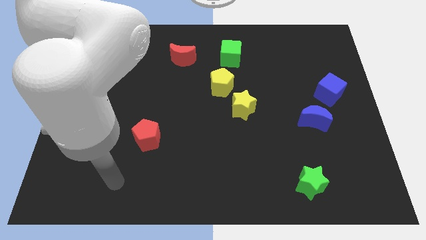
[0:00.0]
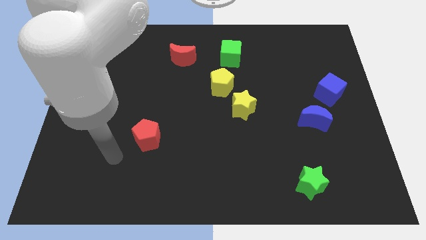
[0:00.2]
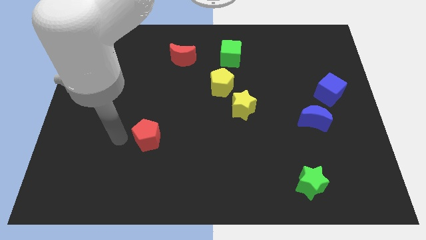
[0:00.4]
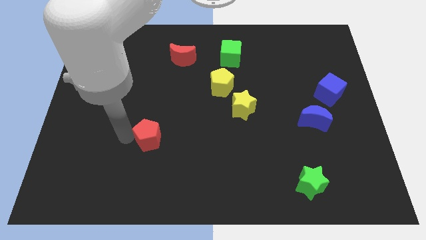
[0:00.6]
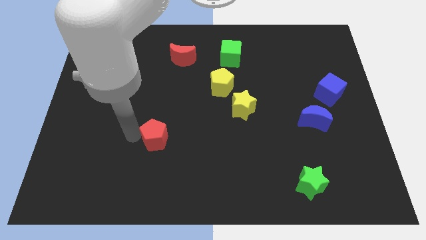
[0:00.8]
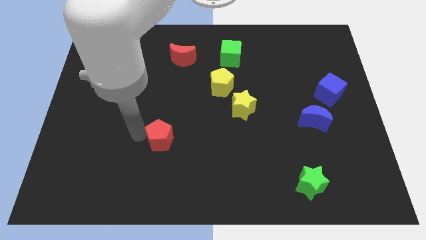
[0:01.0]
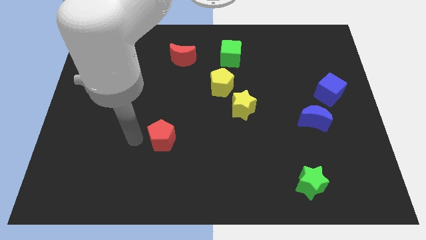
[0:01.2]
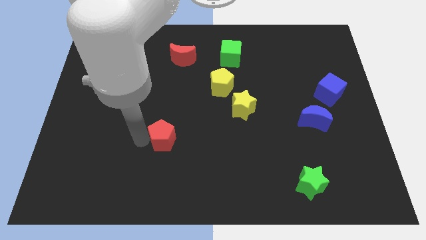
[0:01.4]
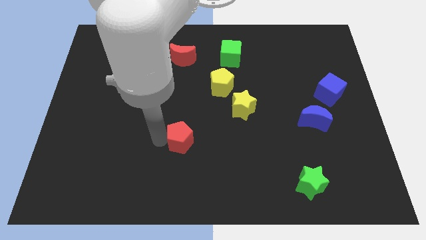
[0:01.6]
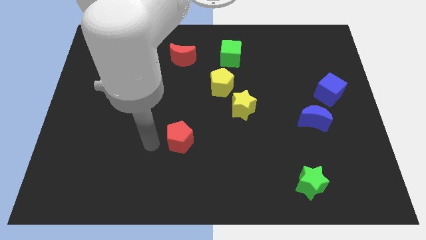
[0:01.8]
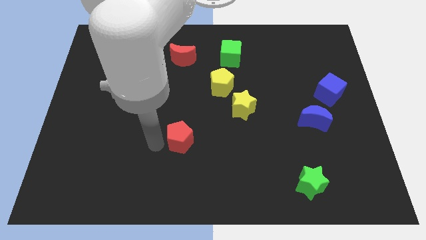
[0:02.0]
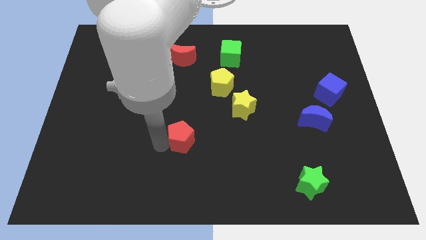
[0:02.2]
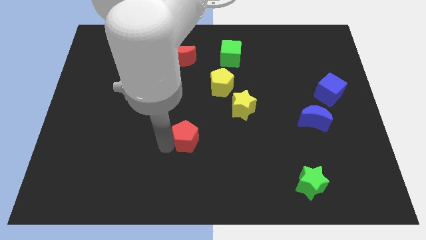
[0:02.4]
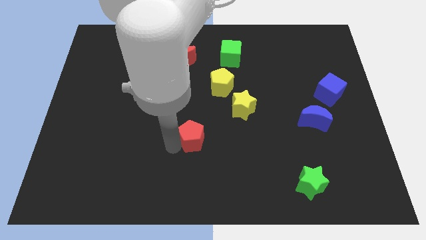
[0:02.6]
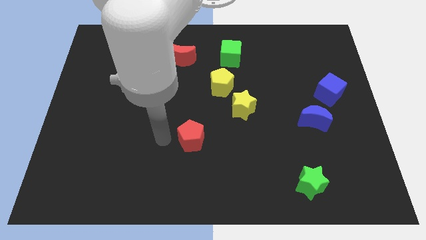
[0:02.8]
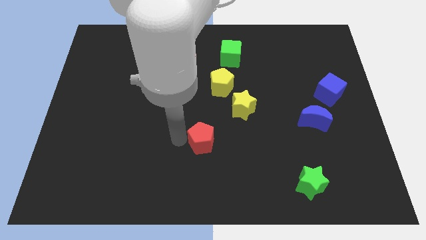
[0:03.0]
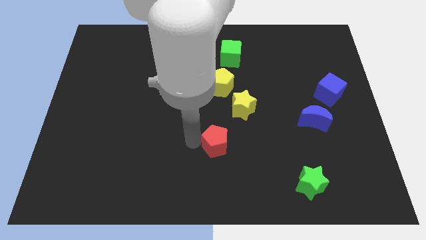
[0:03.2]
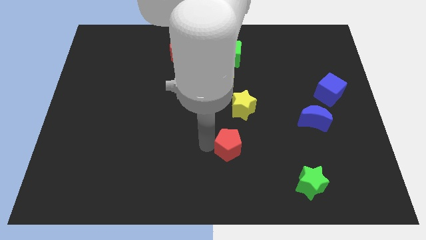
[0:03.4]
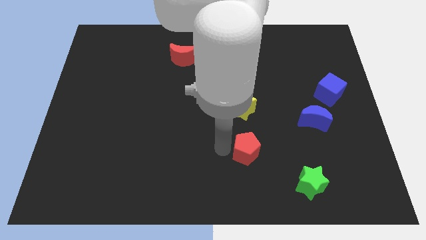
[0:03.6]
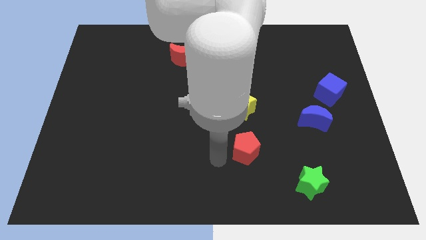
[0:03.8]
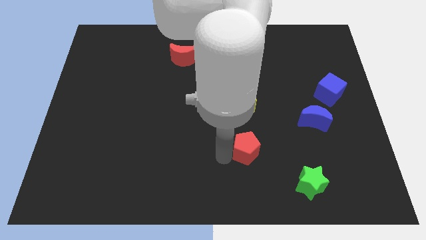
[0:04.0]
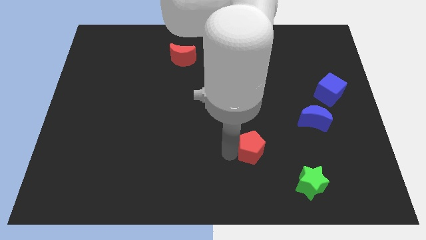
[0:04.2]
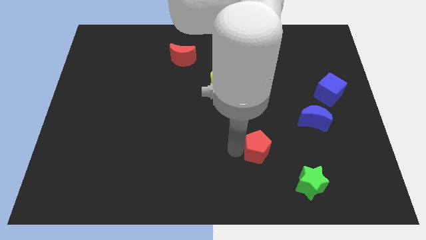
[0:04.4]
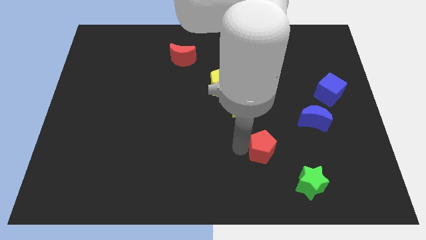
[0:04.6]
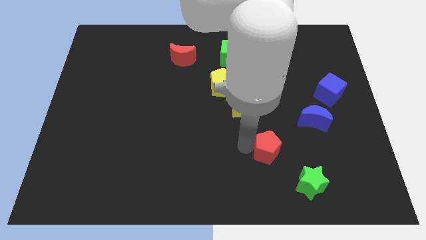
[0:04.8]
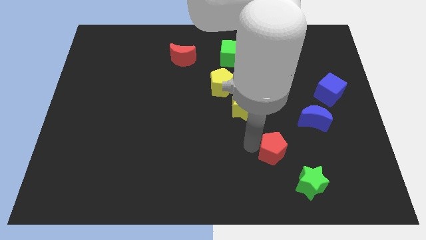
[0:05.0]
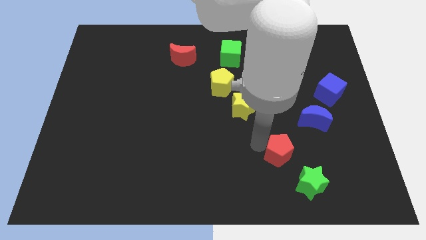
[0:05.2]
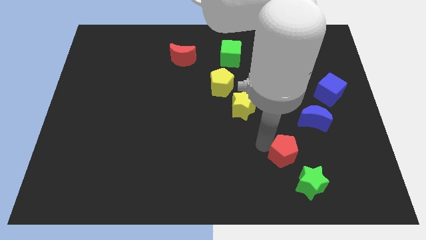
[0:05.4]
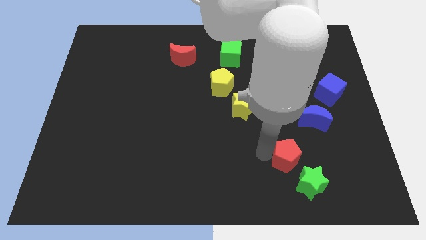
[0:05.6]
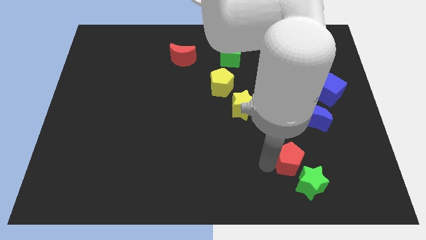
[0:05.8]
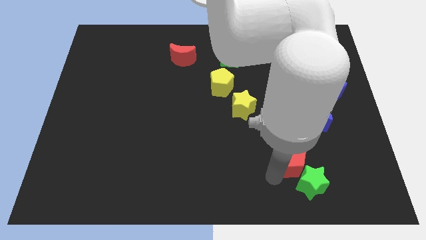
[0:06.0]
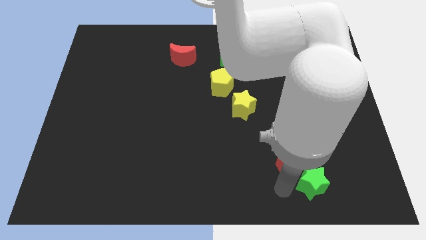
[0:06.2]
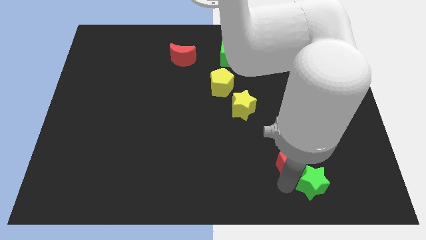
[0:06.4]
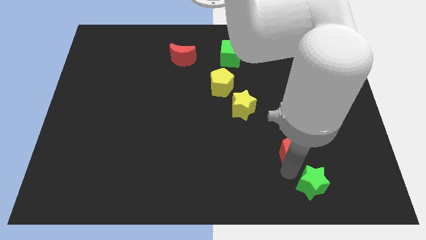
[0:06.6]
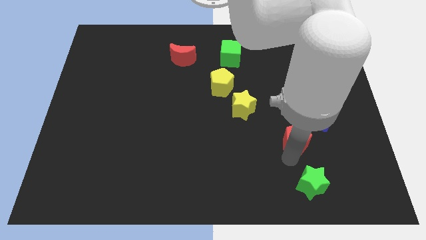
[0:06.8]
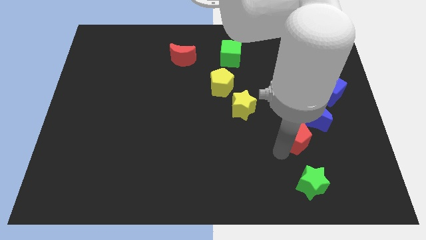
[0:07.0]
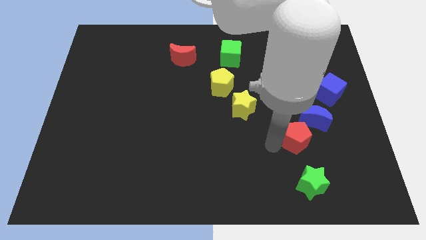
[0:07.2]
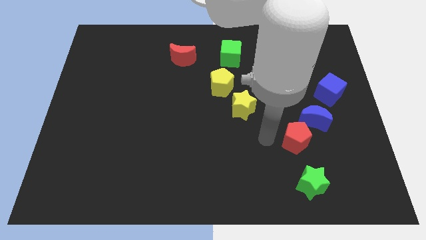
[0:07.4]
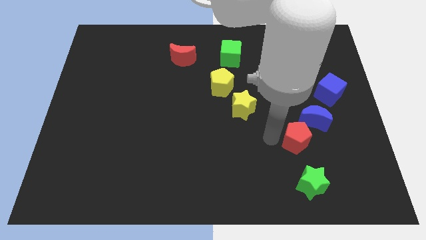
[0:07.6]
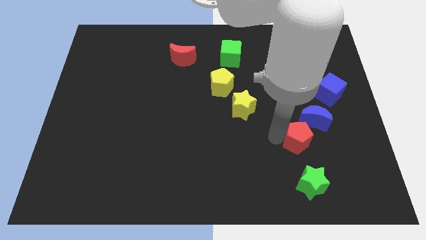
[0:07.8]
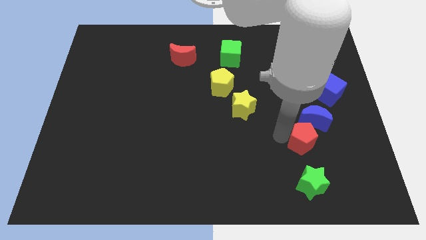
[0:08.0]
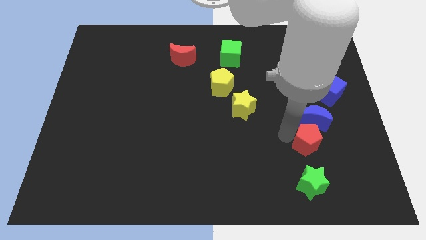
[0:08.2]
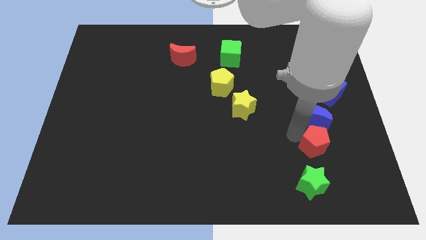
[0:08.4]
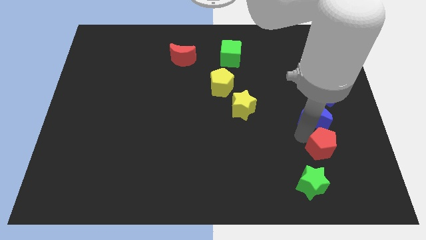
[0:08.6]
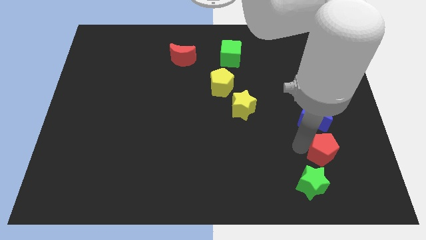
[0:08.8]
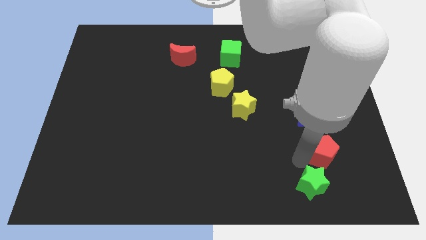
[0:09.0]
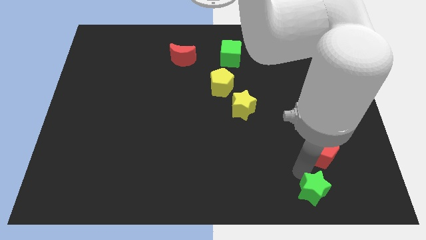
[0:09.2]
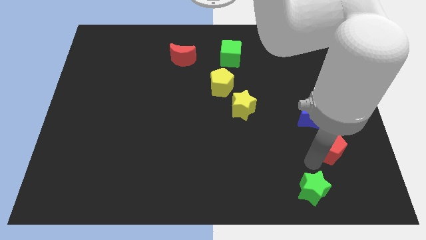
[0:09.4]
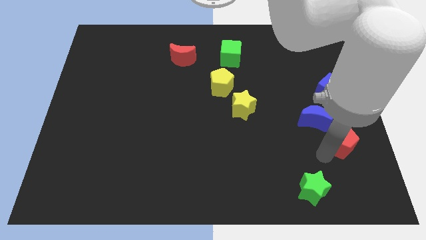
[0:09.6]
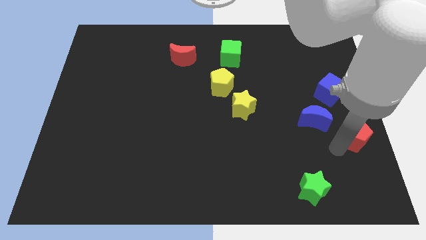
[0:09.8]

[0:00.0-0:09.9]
move the red pentagon to the right side

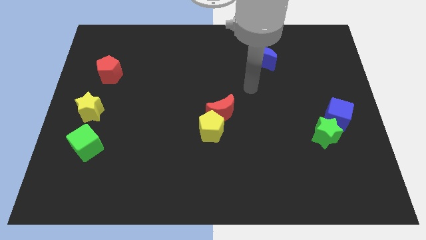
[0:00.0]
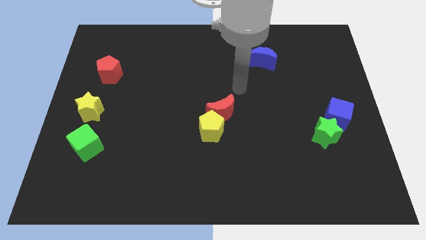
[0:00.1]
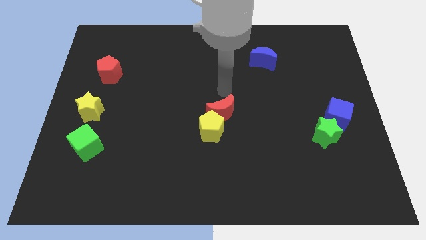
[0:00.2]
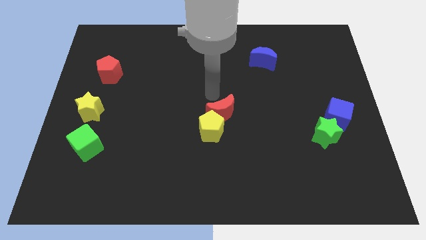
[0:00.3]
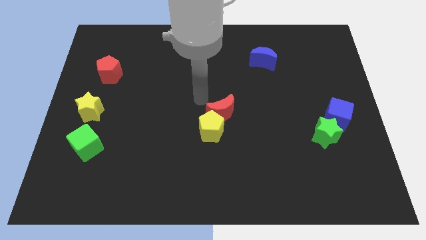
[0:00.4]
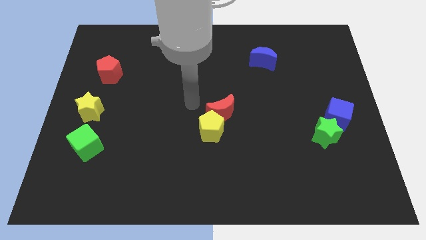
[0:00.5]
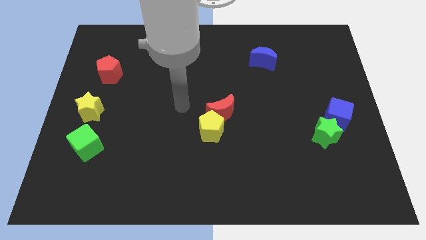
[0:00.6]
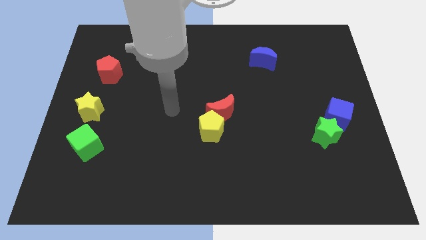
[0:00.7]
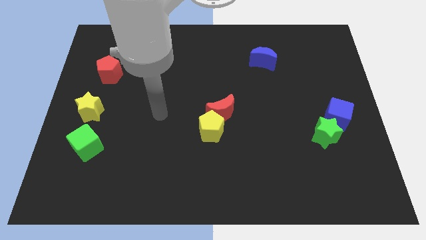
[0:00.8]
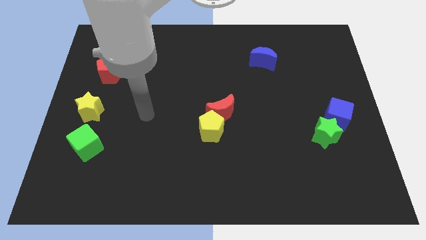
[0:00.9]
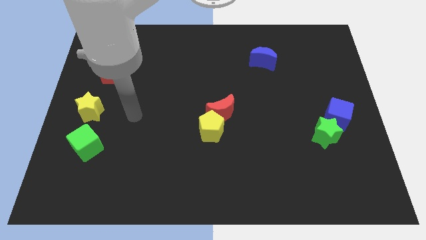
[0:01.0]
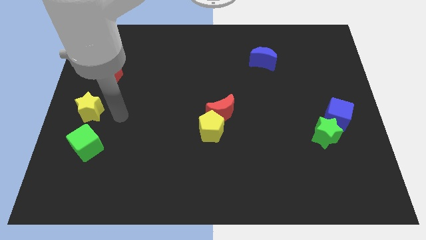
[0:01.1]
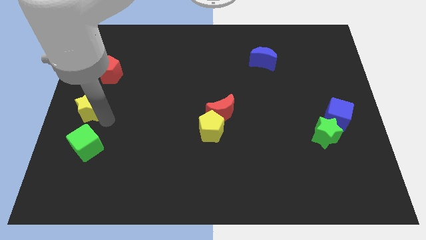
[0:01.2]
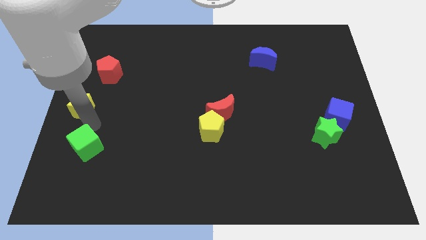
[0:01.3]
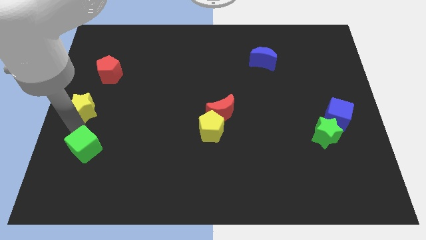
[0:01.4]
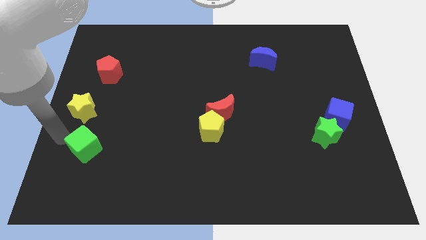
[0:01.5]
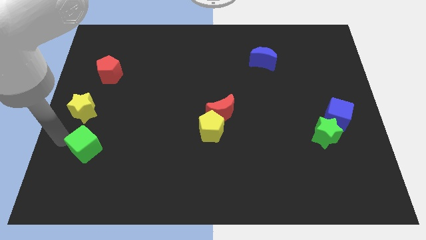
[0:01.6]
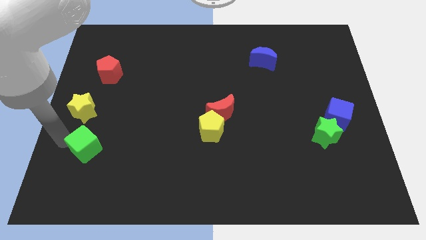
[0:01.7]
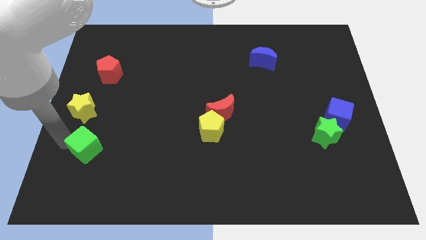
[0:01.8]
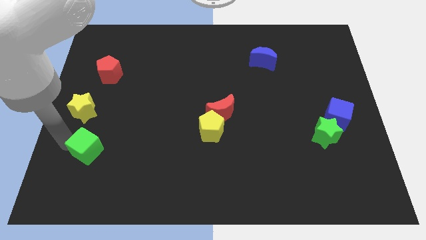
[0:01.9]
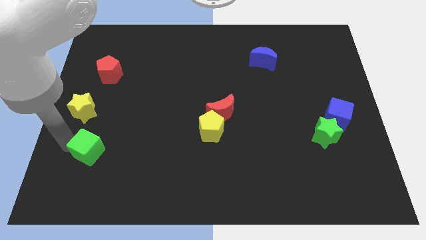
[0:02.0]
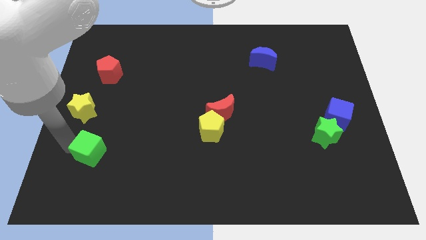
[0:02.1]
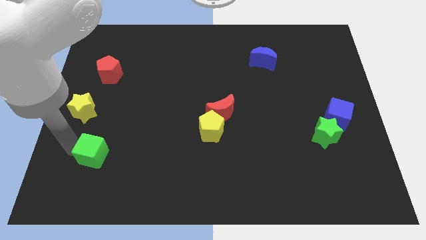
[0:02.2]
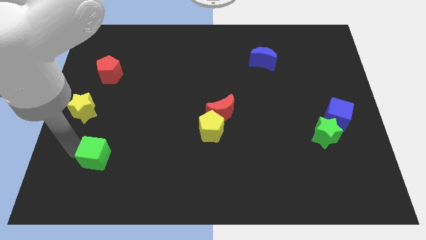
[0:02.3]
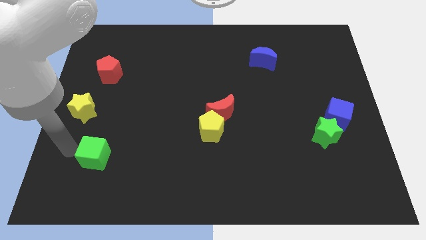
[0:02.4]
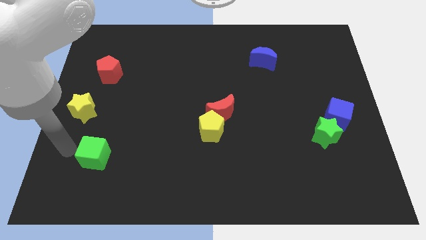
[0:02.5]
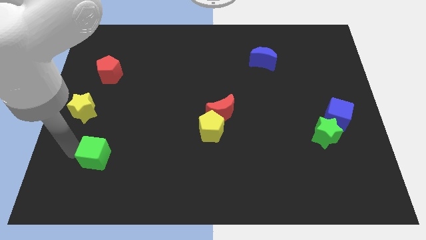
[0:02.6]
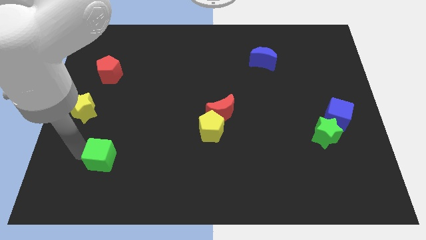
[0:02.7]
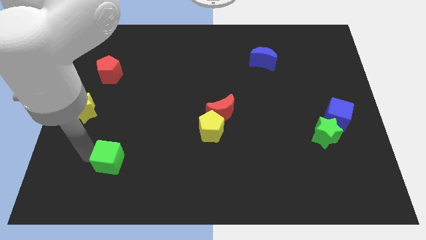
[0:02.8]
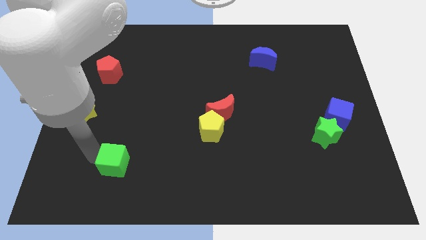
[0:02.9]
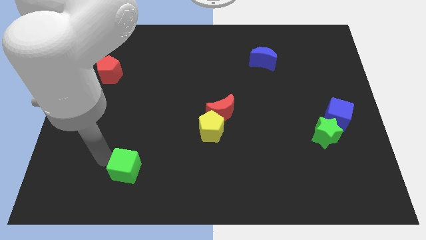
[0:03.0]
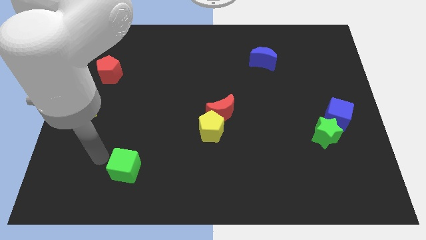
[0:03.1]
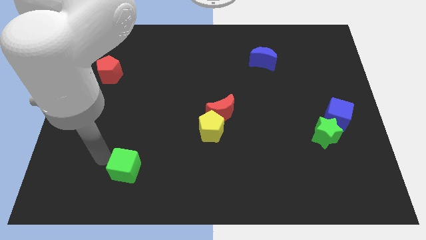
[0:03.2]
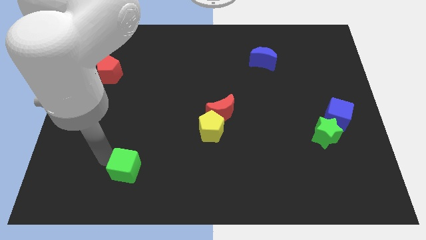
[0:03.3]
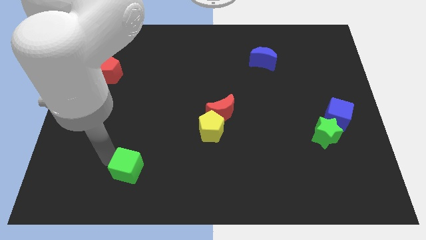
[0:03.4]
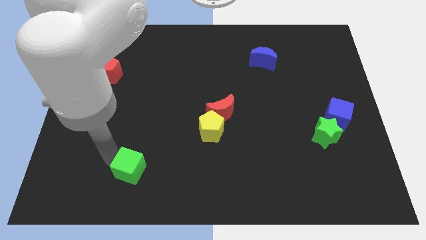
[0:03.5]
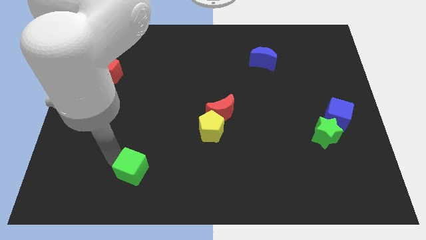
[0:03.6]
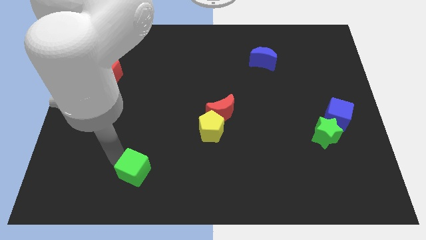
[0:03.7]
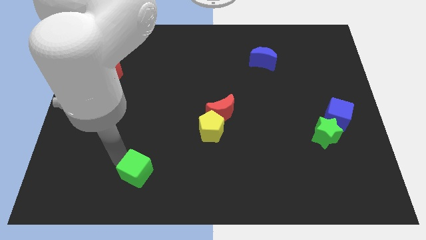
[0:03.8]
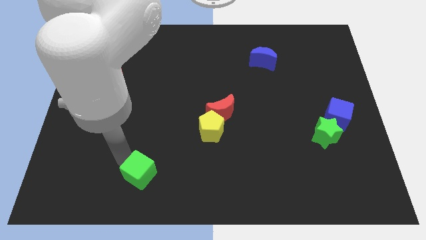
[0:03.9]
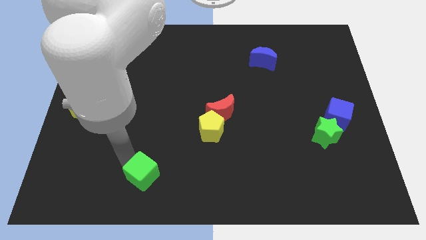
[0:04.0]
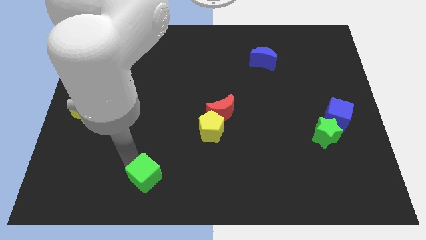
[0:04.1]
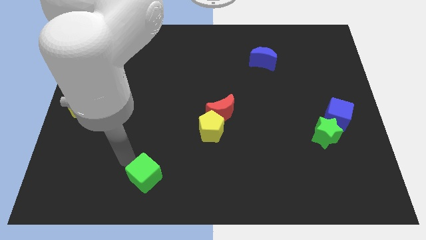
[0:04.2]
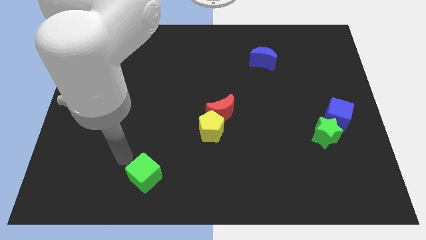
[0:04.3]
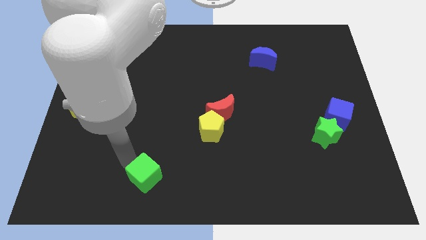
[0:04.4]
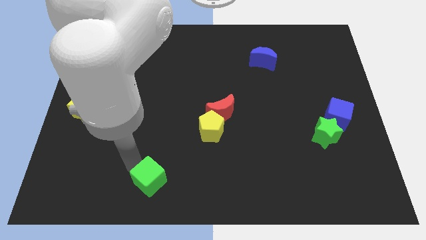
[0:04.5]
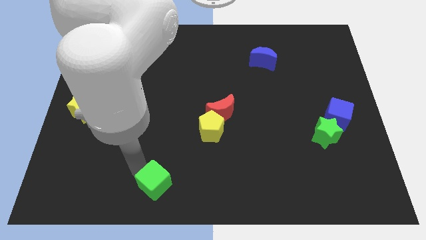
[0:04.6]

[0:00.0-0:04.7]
put the green cube to the bottom side
